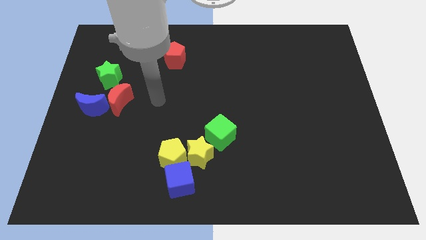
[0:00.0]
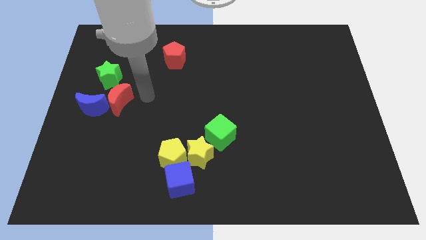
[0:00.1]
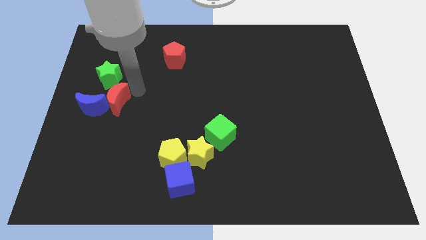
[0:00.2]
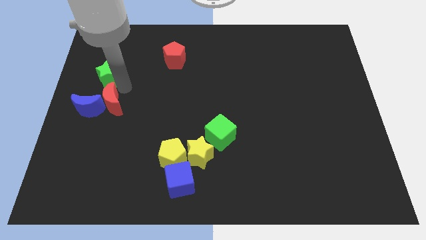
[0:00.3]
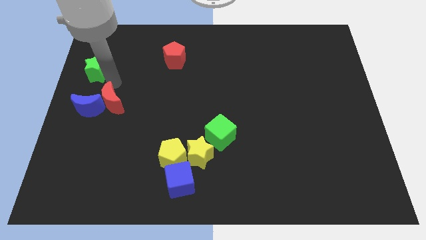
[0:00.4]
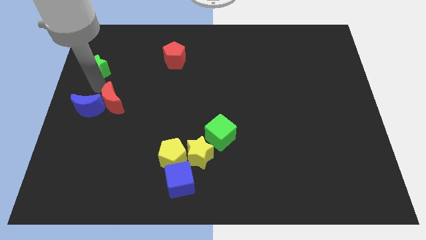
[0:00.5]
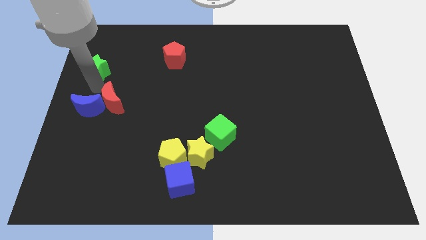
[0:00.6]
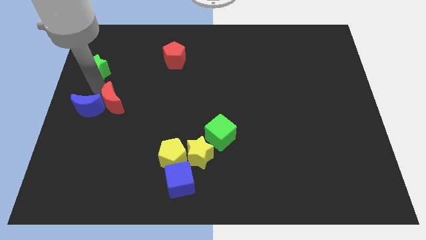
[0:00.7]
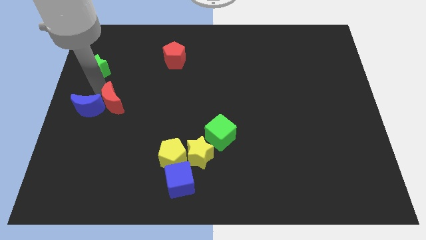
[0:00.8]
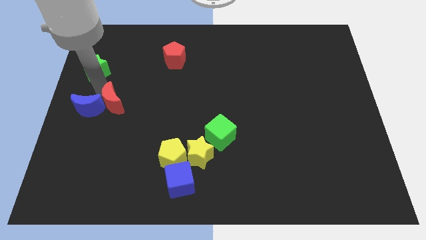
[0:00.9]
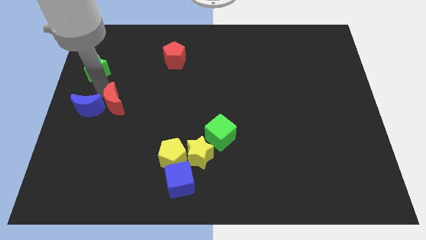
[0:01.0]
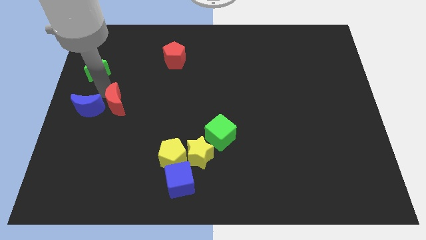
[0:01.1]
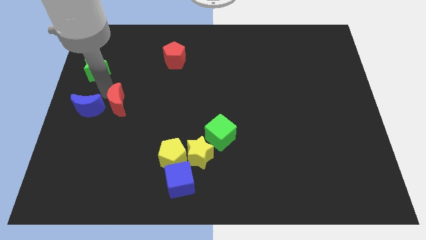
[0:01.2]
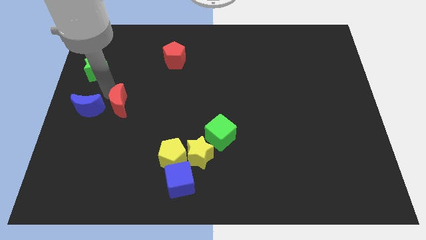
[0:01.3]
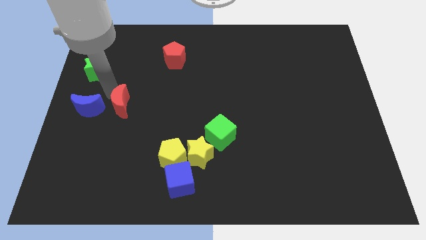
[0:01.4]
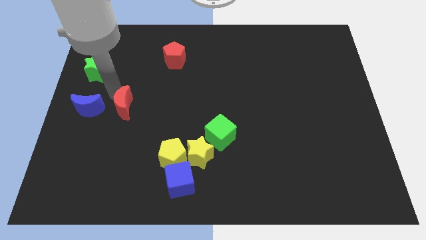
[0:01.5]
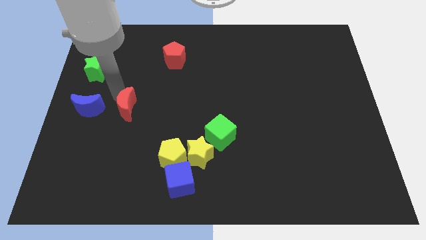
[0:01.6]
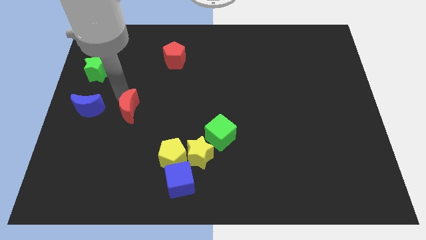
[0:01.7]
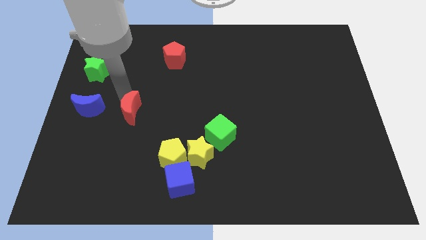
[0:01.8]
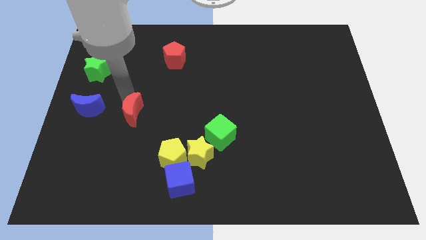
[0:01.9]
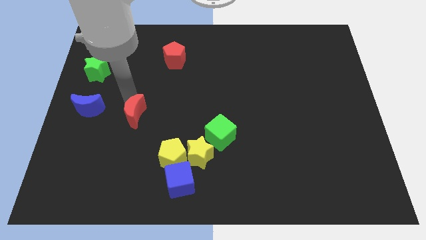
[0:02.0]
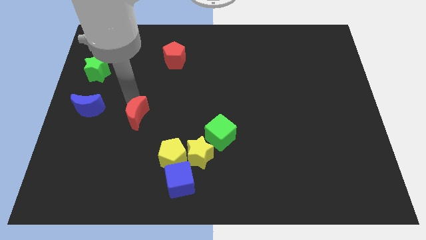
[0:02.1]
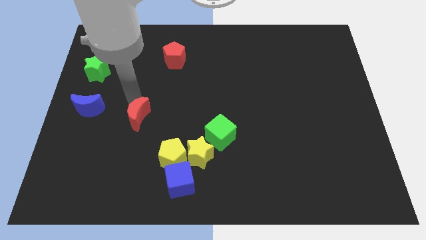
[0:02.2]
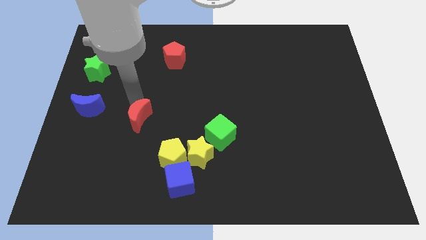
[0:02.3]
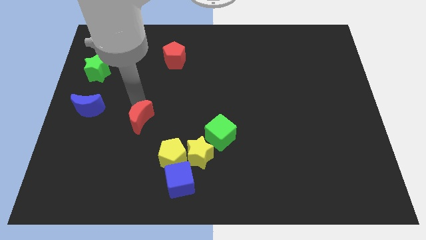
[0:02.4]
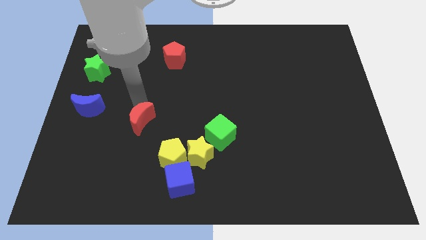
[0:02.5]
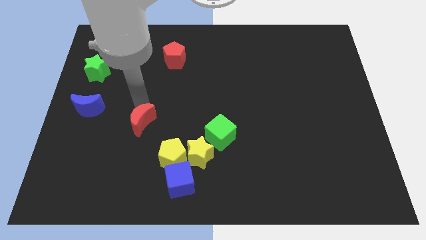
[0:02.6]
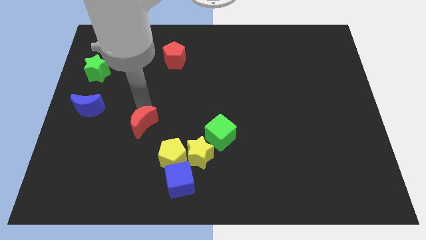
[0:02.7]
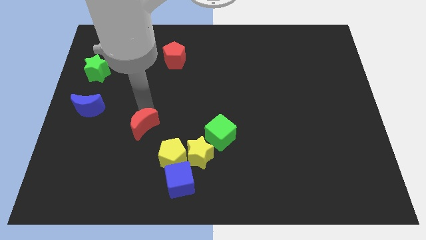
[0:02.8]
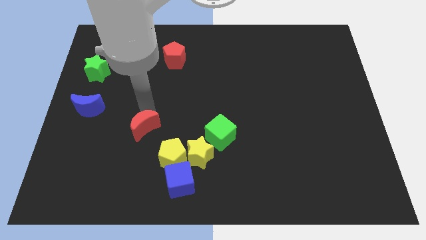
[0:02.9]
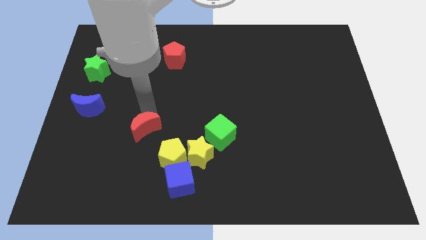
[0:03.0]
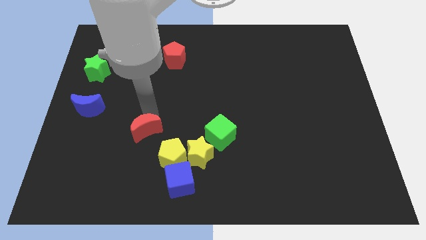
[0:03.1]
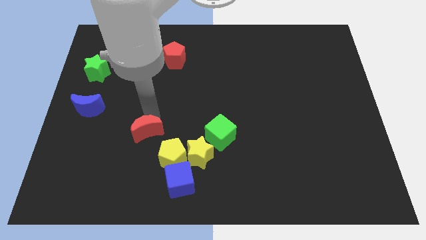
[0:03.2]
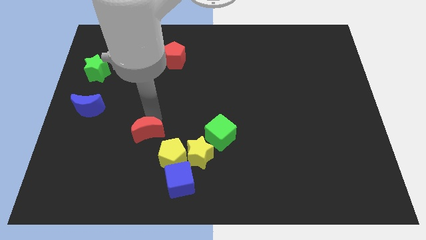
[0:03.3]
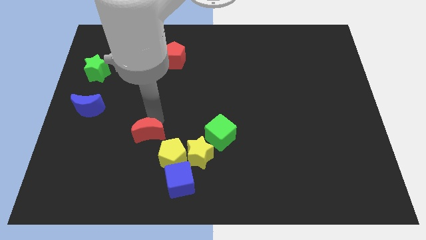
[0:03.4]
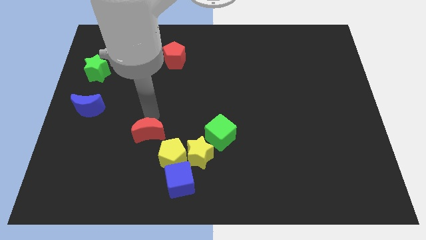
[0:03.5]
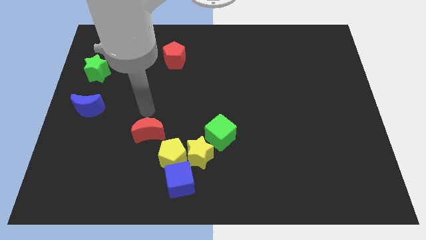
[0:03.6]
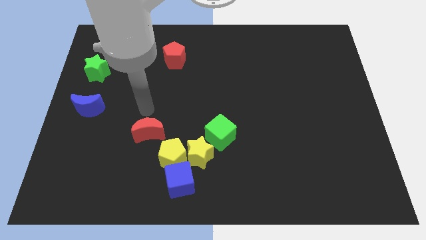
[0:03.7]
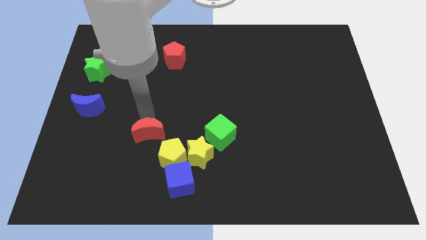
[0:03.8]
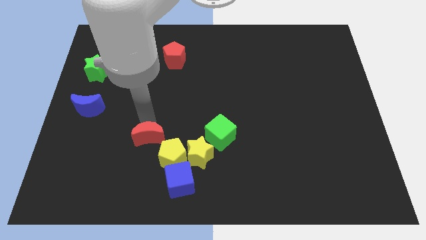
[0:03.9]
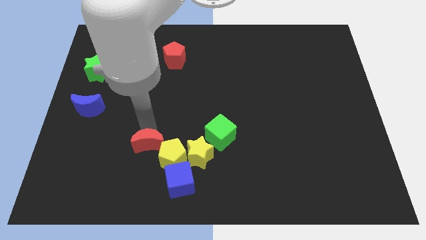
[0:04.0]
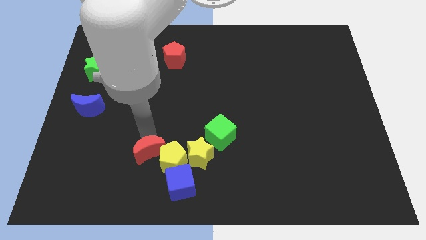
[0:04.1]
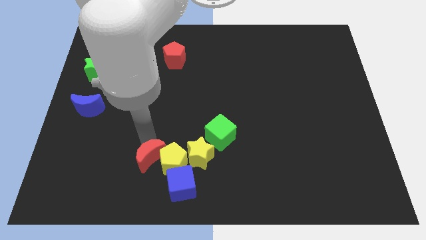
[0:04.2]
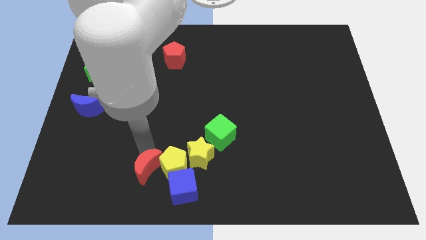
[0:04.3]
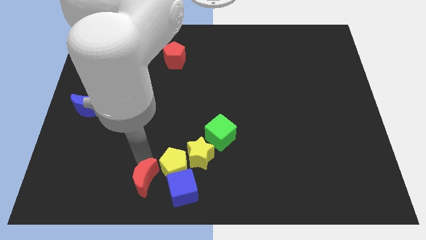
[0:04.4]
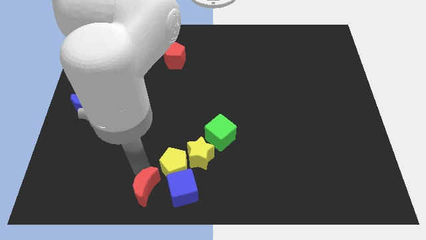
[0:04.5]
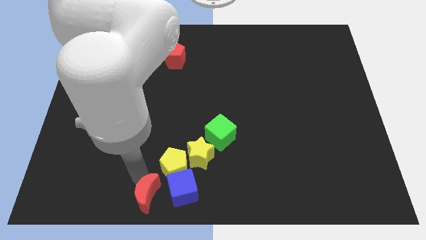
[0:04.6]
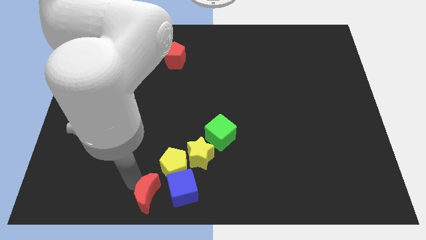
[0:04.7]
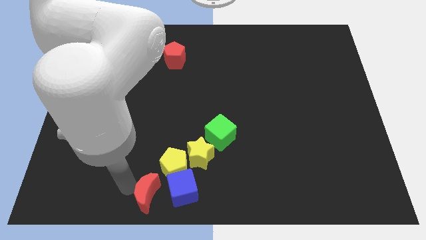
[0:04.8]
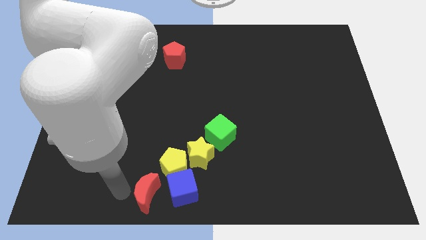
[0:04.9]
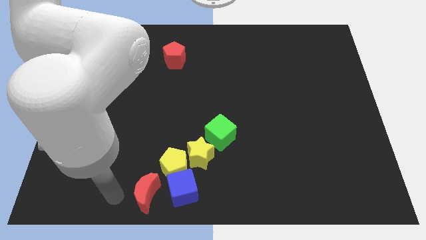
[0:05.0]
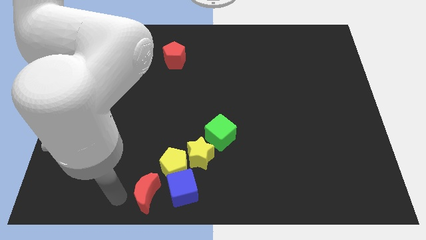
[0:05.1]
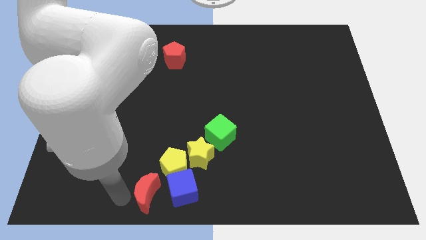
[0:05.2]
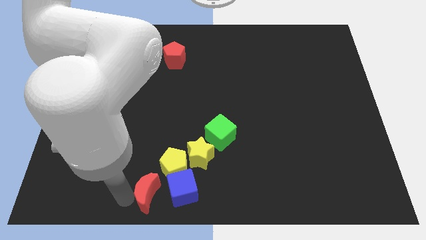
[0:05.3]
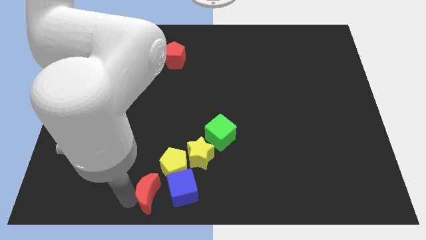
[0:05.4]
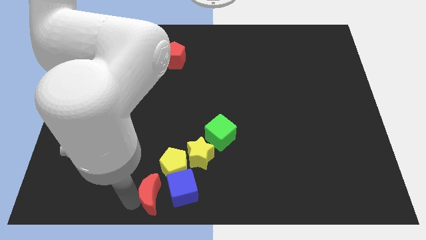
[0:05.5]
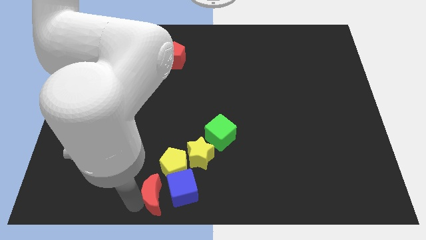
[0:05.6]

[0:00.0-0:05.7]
push the red moon close to the blue cube

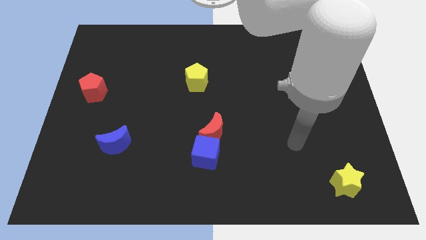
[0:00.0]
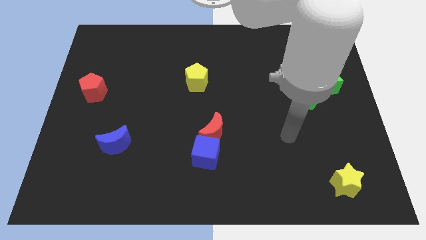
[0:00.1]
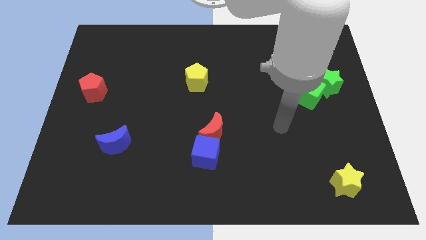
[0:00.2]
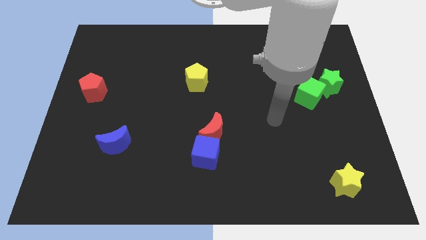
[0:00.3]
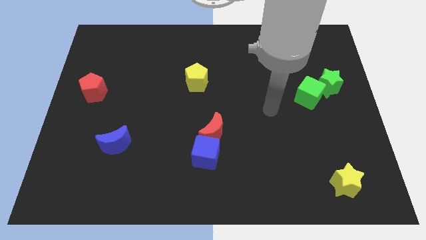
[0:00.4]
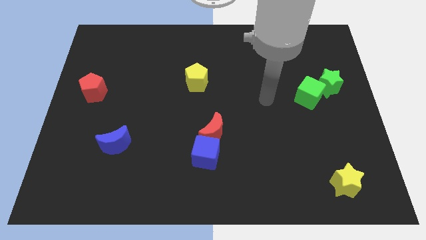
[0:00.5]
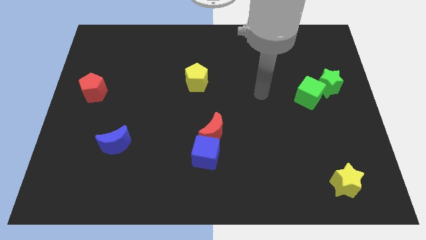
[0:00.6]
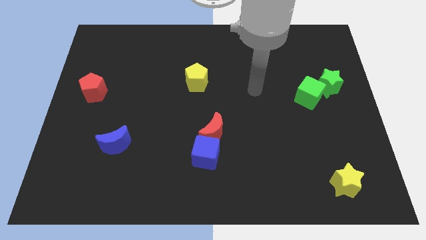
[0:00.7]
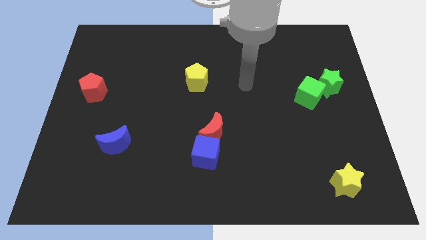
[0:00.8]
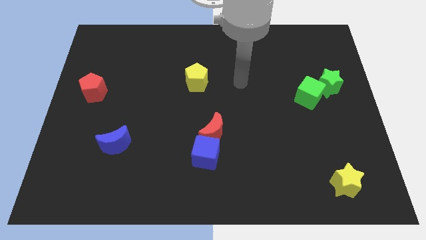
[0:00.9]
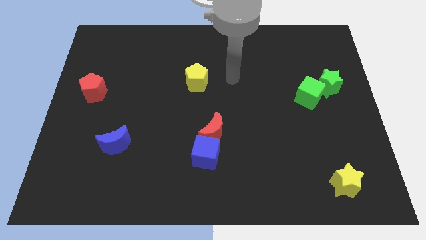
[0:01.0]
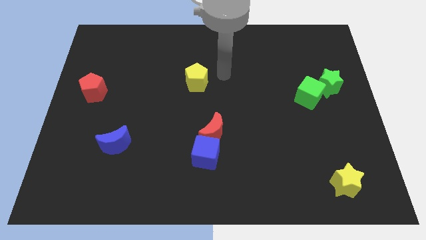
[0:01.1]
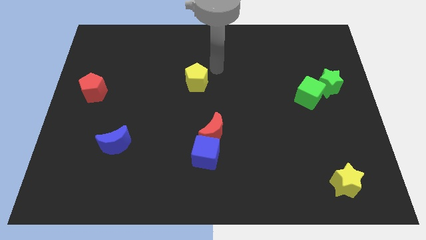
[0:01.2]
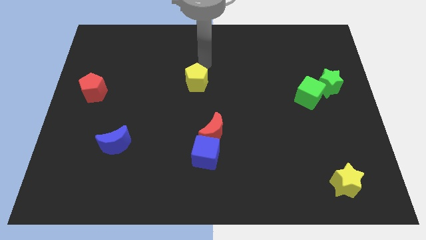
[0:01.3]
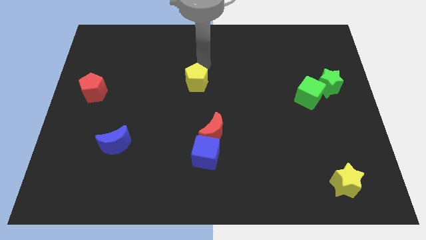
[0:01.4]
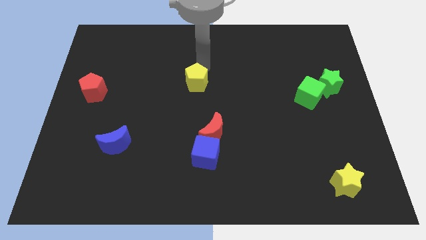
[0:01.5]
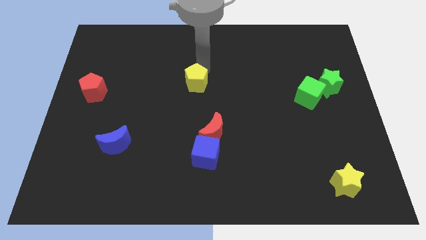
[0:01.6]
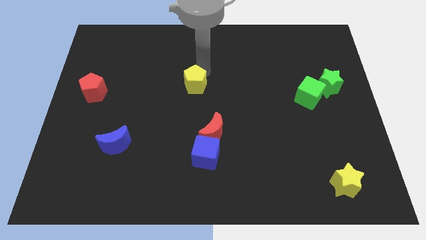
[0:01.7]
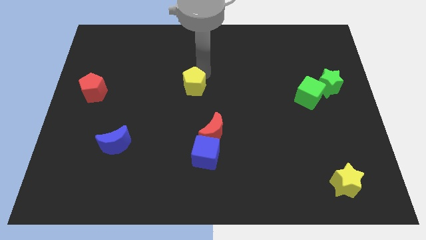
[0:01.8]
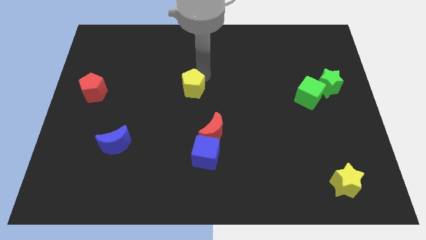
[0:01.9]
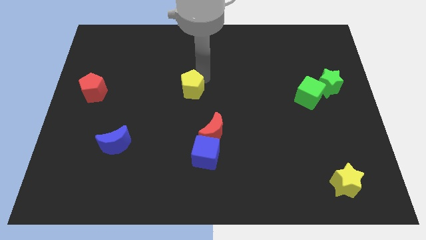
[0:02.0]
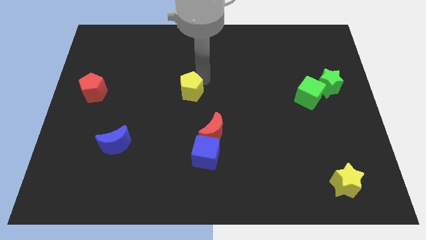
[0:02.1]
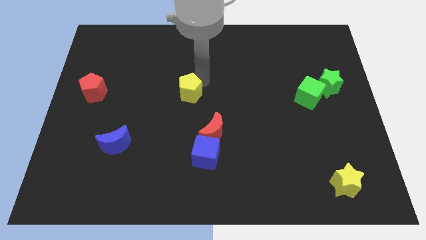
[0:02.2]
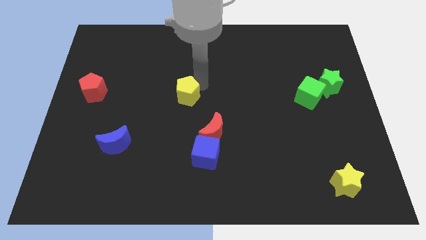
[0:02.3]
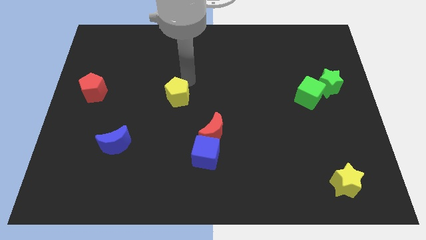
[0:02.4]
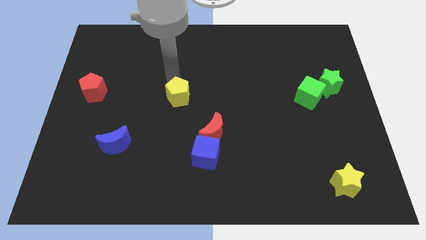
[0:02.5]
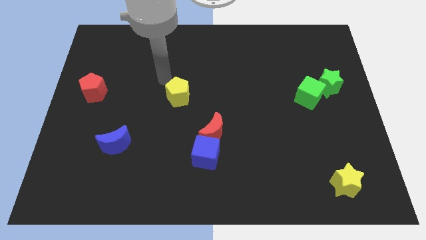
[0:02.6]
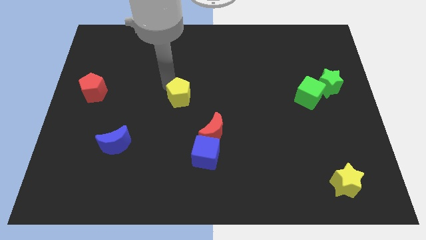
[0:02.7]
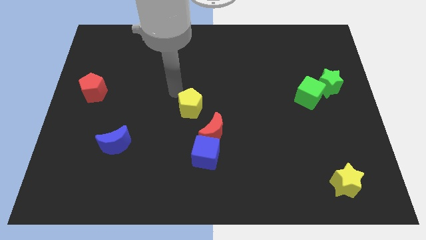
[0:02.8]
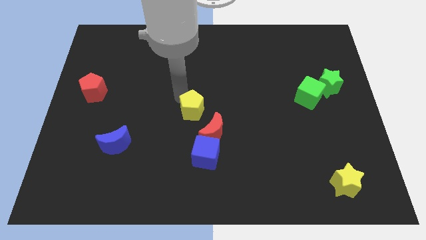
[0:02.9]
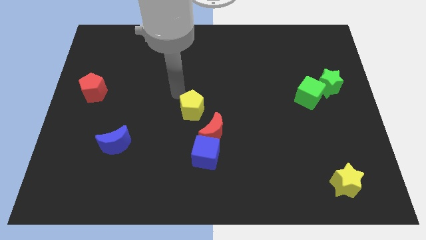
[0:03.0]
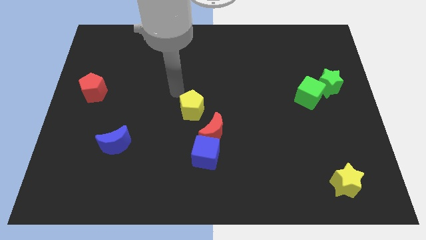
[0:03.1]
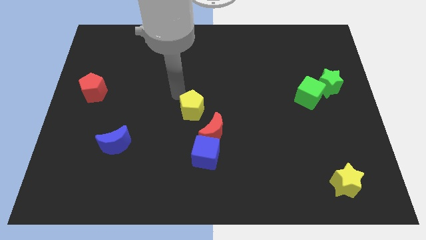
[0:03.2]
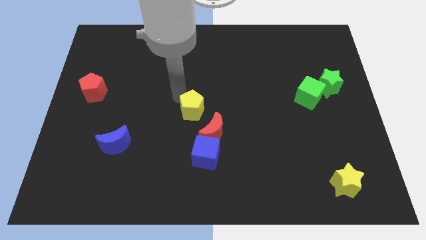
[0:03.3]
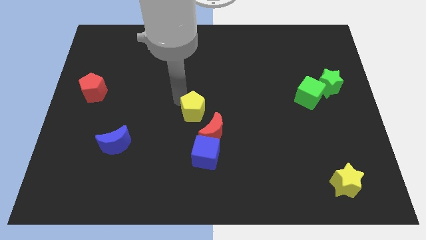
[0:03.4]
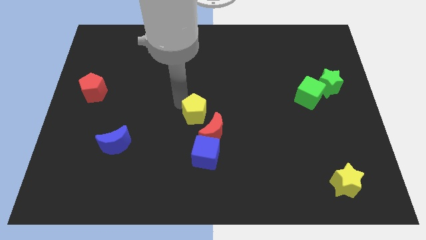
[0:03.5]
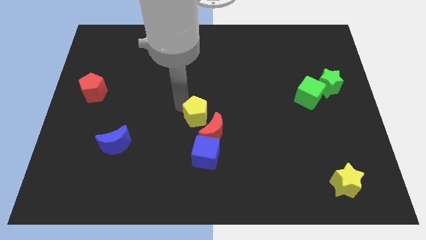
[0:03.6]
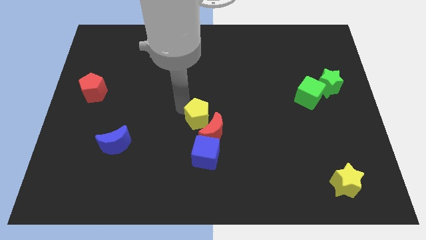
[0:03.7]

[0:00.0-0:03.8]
move the yellow pentagon close to the red moon
